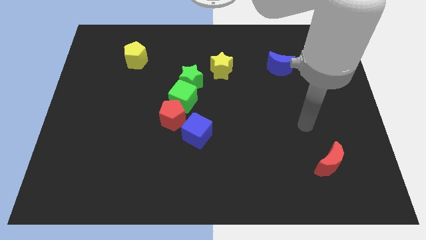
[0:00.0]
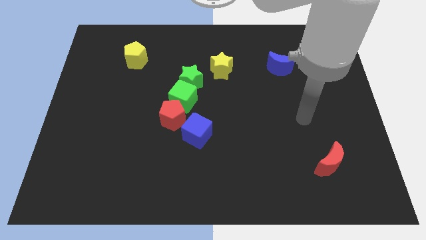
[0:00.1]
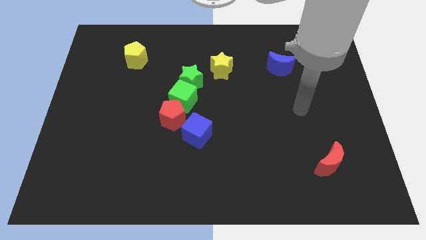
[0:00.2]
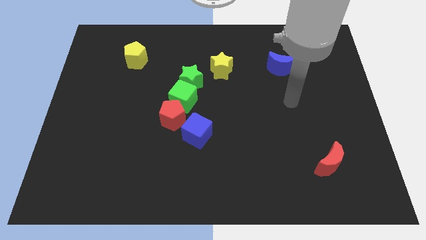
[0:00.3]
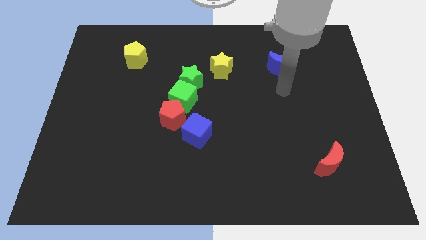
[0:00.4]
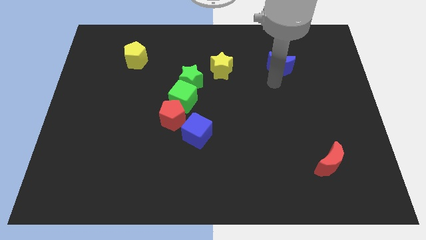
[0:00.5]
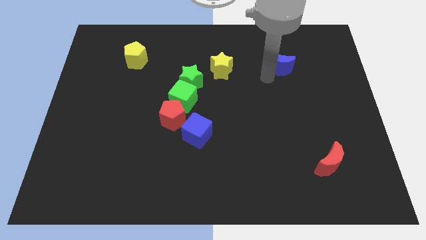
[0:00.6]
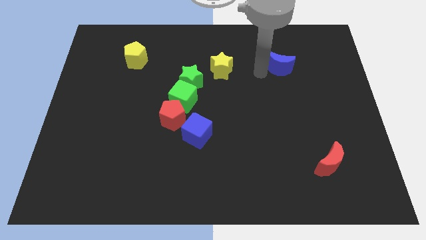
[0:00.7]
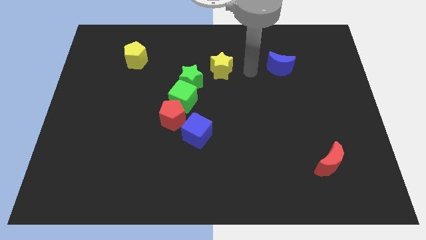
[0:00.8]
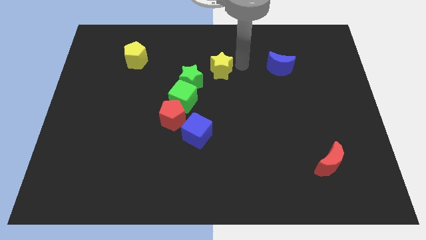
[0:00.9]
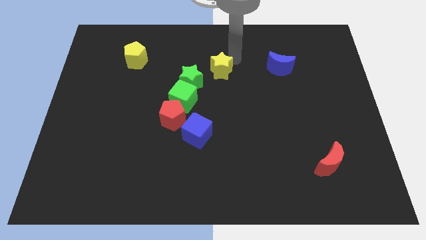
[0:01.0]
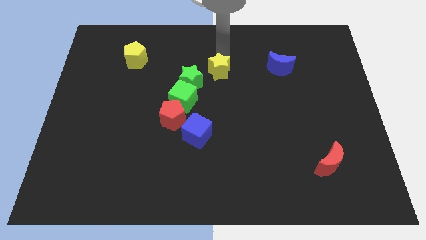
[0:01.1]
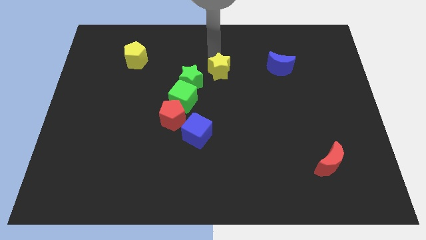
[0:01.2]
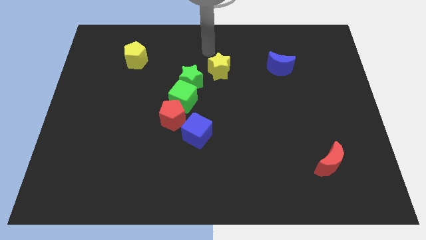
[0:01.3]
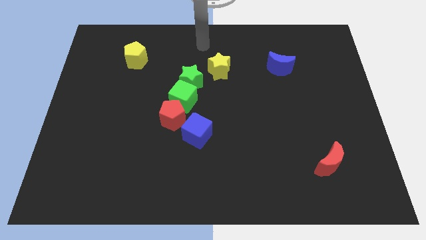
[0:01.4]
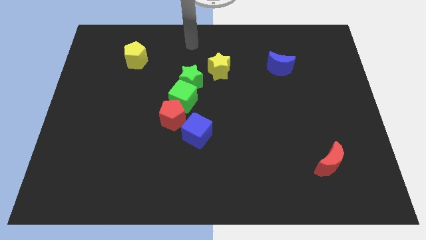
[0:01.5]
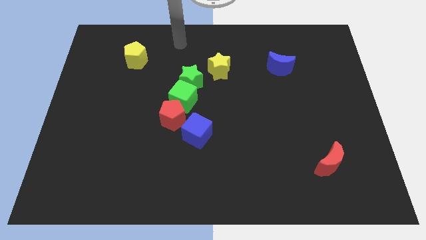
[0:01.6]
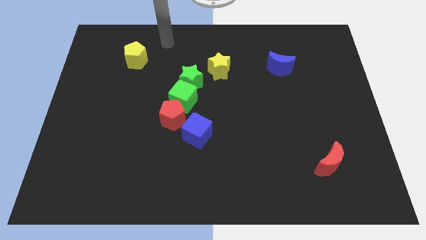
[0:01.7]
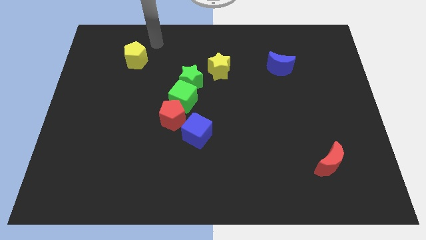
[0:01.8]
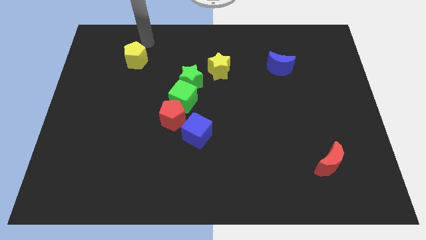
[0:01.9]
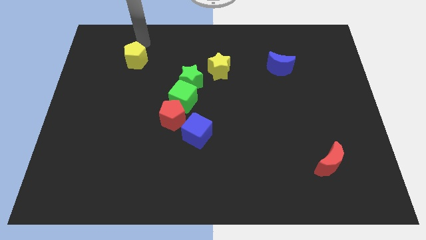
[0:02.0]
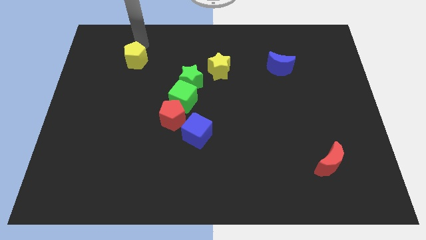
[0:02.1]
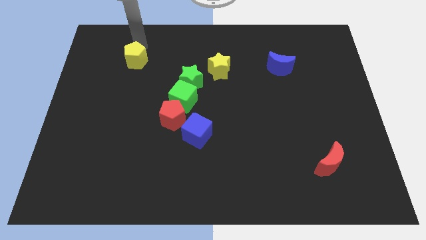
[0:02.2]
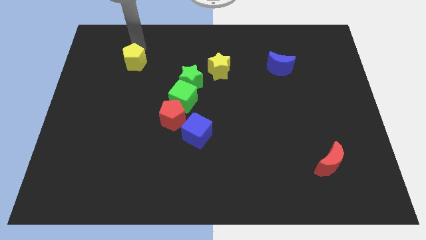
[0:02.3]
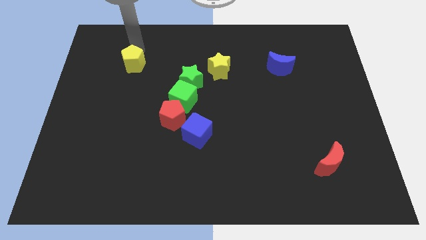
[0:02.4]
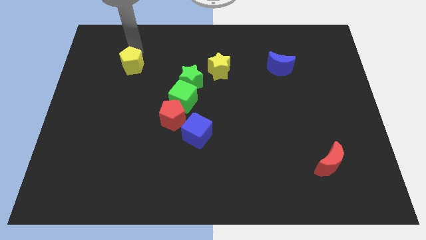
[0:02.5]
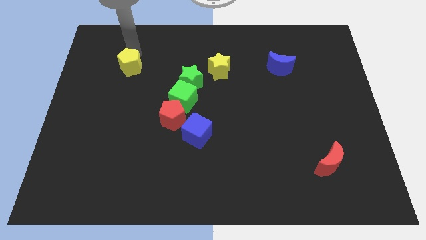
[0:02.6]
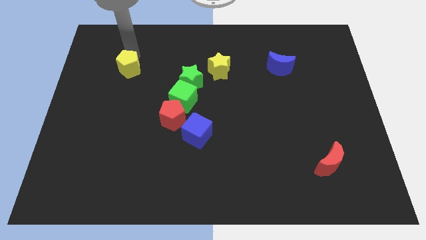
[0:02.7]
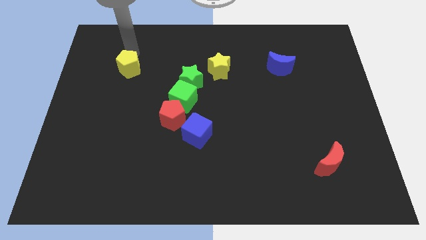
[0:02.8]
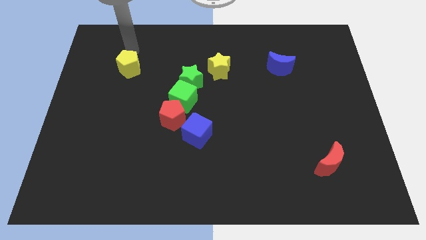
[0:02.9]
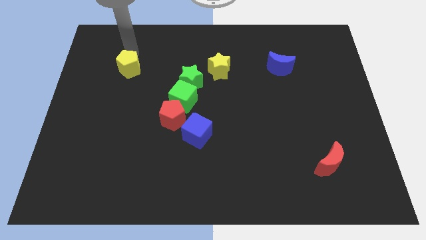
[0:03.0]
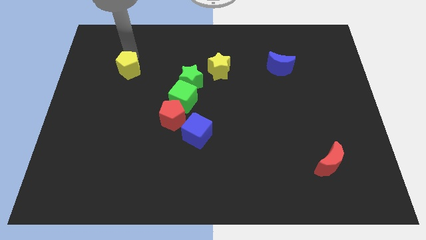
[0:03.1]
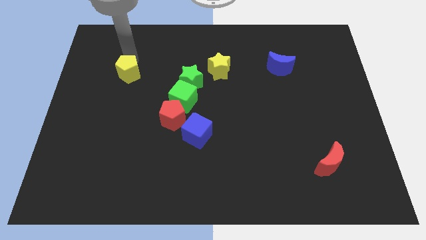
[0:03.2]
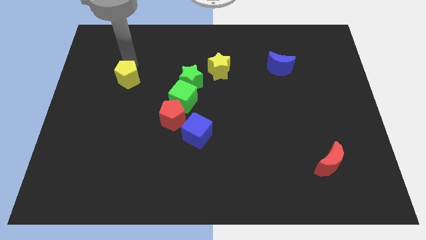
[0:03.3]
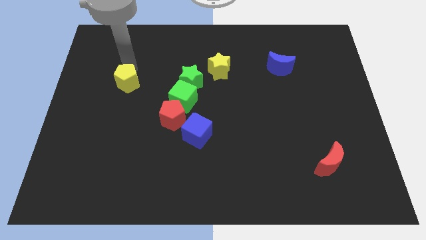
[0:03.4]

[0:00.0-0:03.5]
push the yellow pentagon down a little bit

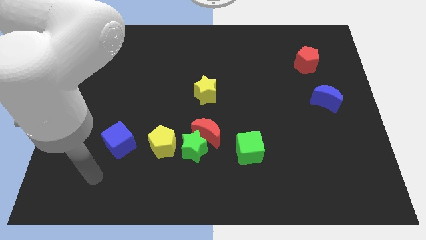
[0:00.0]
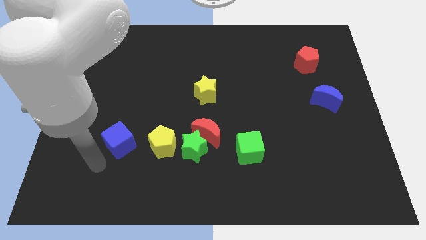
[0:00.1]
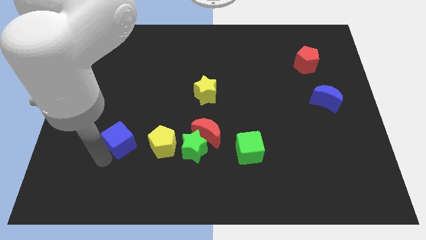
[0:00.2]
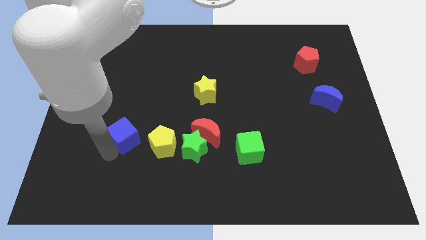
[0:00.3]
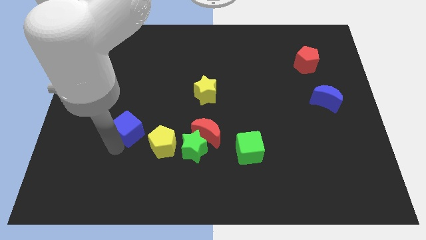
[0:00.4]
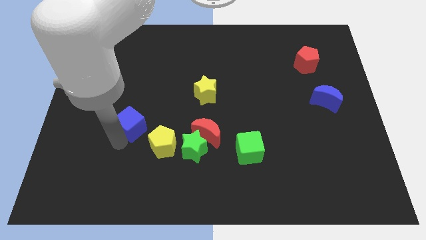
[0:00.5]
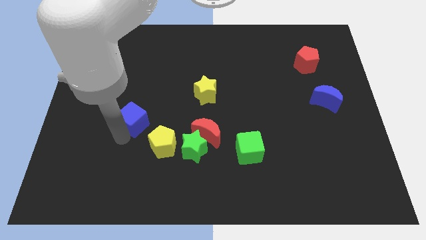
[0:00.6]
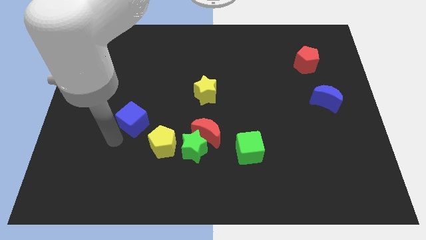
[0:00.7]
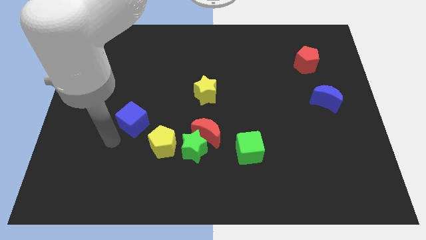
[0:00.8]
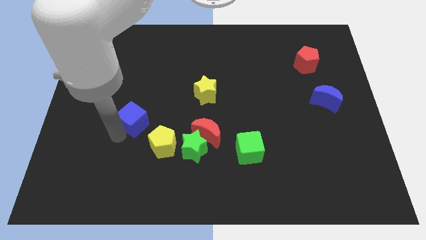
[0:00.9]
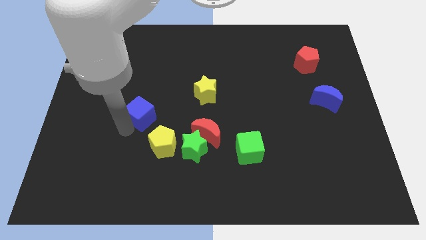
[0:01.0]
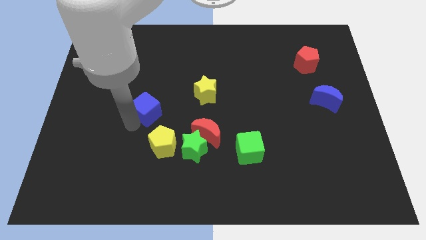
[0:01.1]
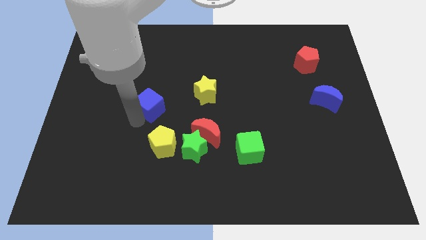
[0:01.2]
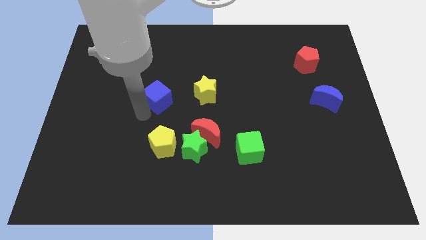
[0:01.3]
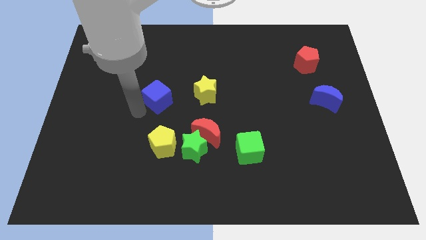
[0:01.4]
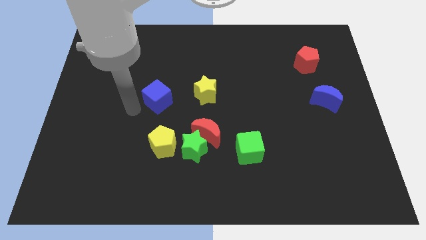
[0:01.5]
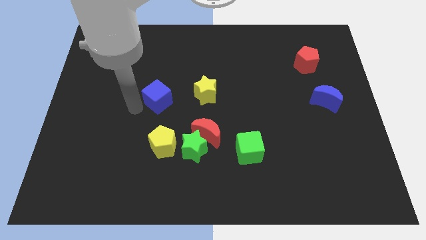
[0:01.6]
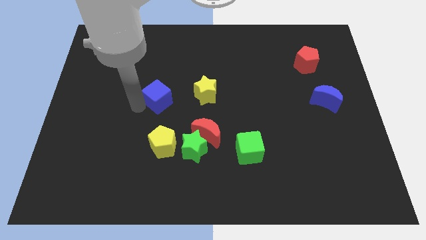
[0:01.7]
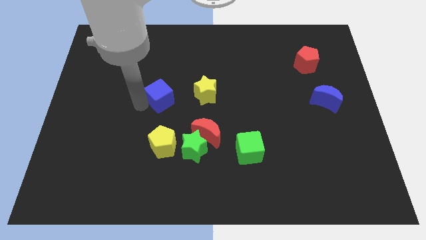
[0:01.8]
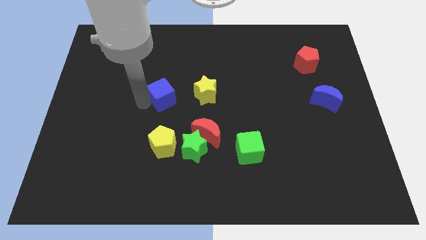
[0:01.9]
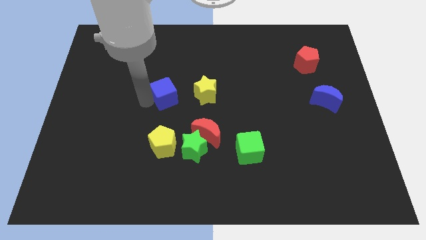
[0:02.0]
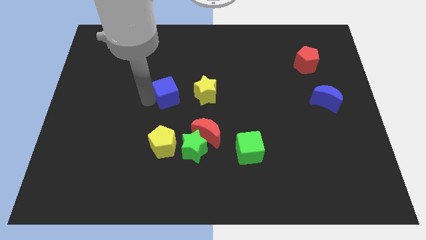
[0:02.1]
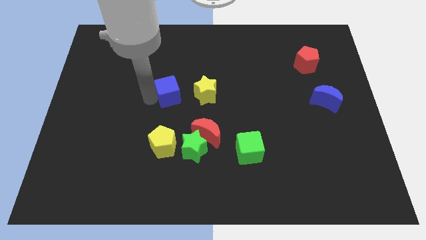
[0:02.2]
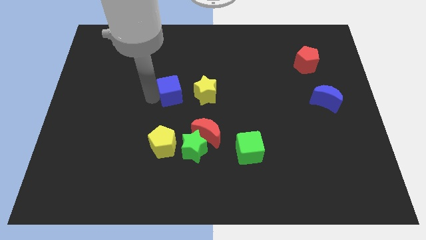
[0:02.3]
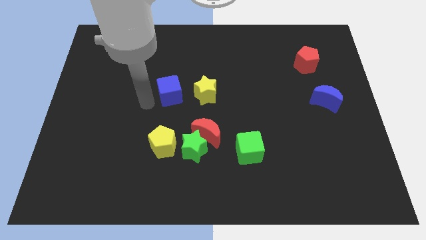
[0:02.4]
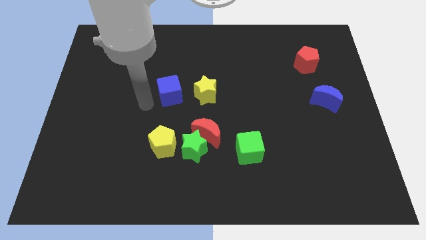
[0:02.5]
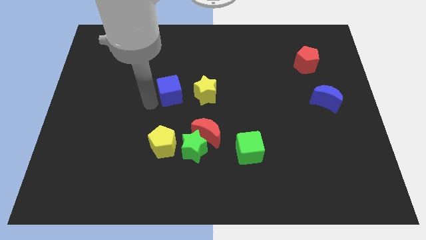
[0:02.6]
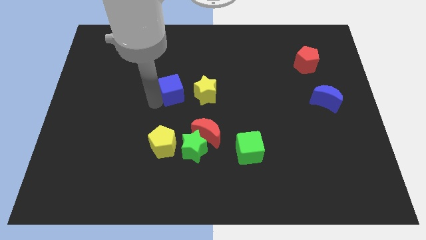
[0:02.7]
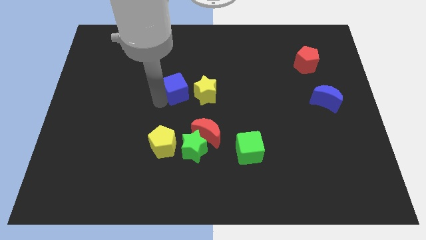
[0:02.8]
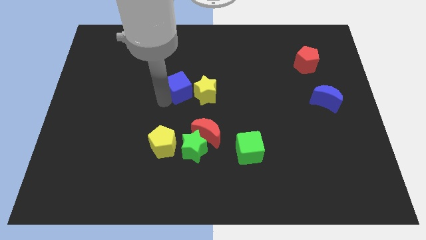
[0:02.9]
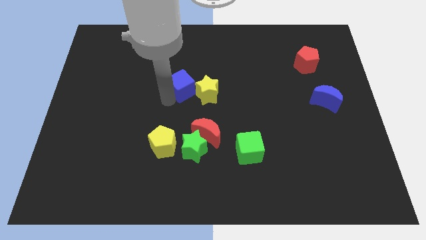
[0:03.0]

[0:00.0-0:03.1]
push the blue cube diagonally upwards and right

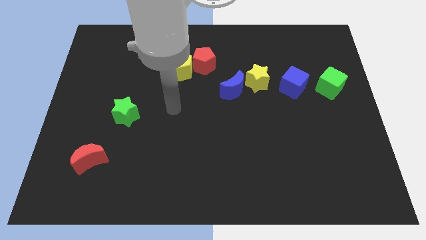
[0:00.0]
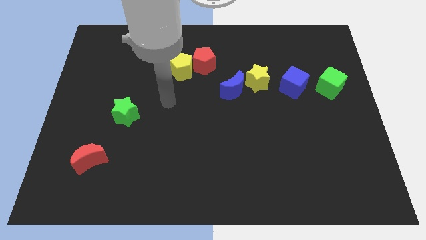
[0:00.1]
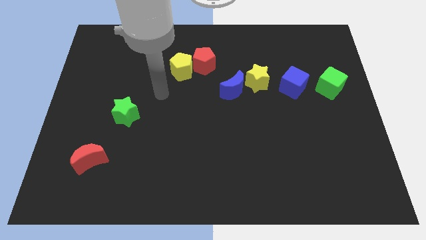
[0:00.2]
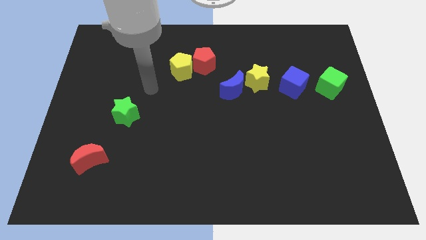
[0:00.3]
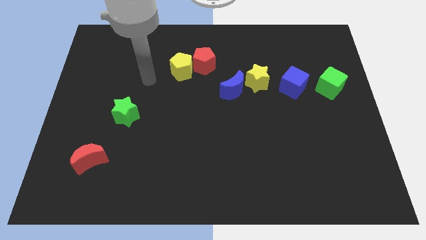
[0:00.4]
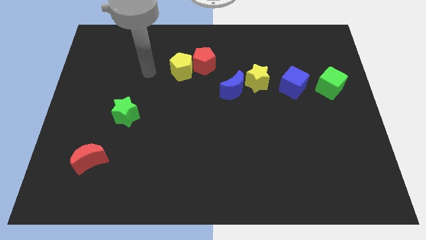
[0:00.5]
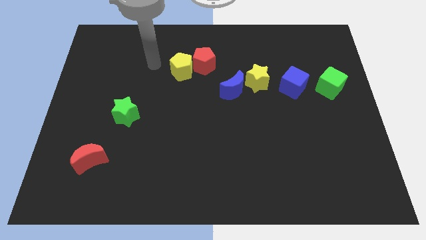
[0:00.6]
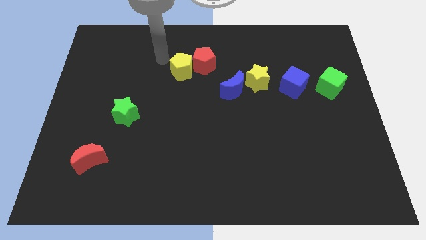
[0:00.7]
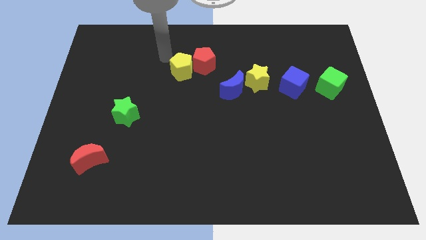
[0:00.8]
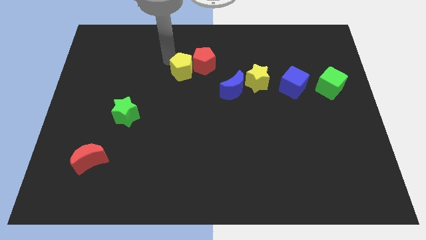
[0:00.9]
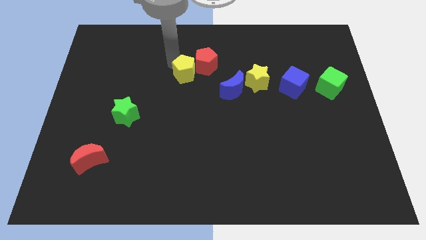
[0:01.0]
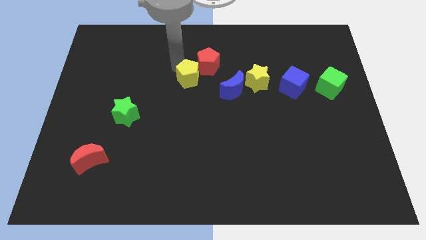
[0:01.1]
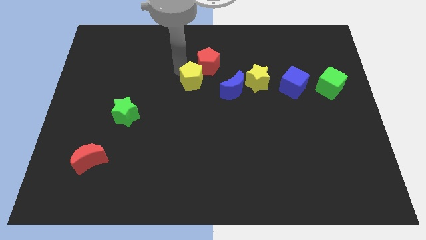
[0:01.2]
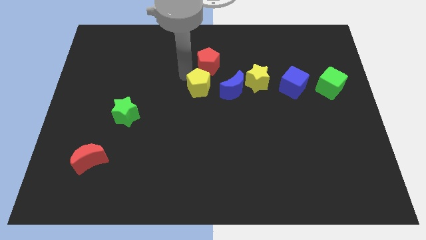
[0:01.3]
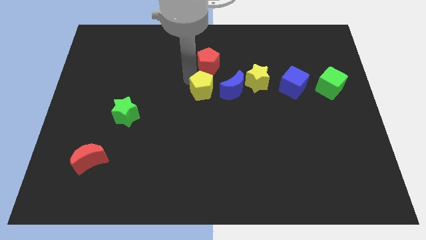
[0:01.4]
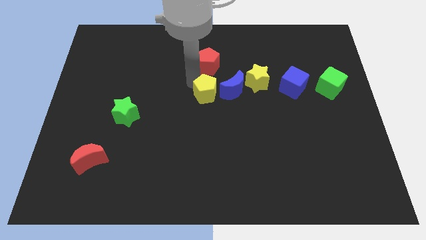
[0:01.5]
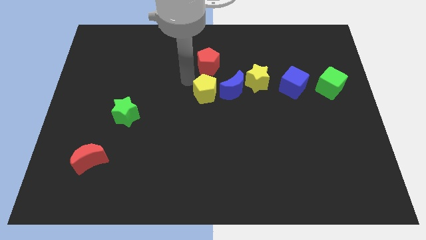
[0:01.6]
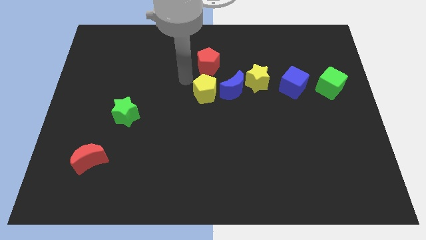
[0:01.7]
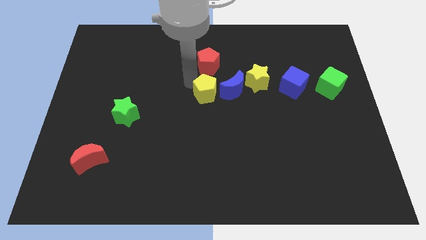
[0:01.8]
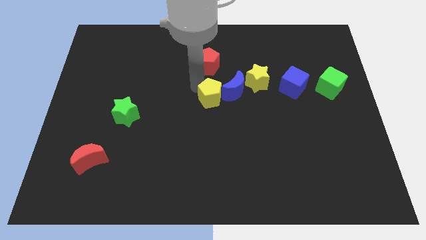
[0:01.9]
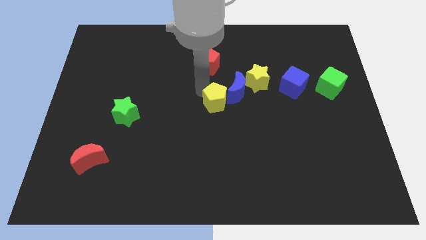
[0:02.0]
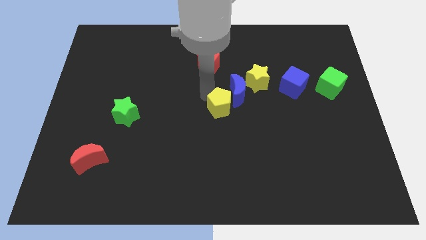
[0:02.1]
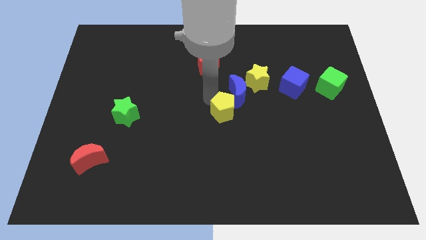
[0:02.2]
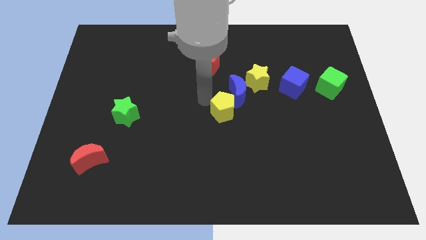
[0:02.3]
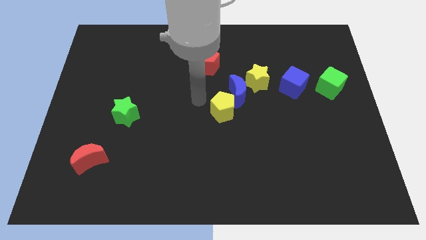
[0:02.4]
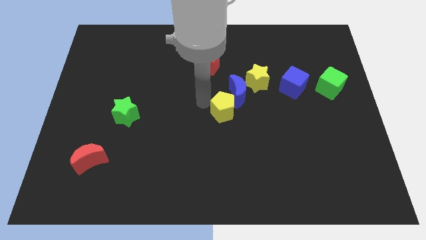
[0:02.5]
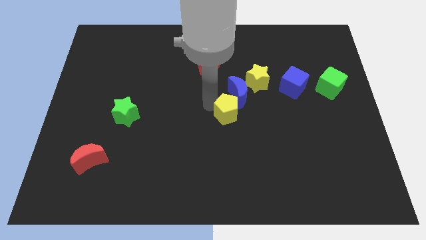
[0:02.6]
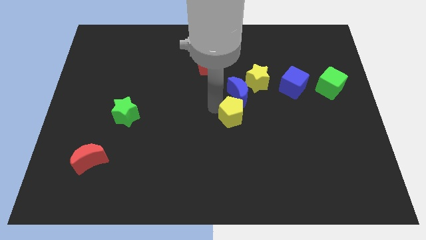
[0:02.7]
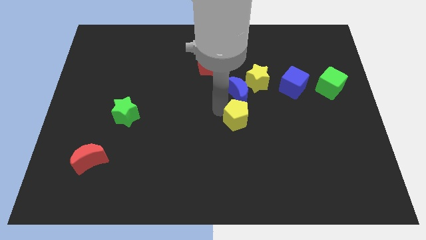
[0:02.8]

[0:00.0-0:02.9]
move the yellow pentagon diagonally down and to the right
